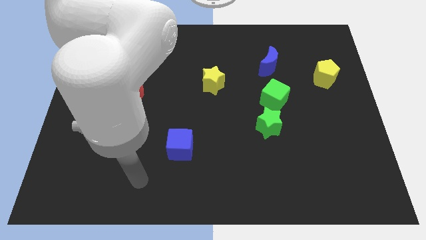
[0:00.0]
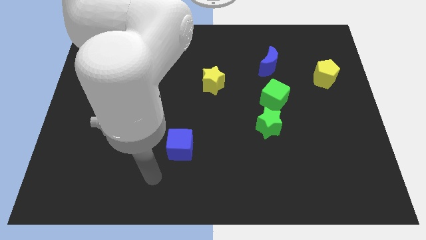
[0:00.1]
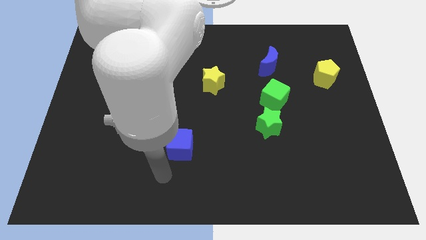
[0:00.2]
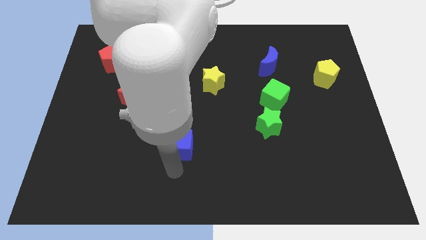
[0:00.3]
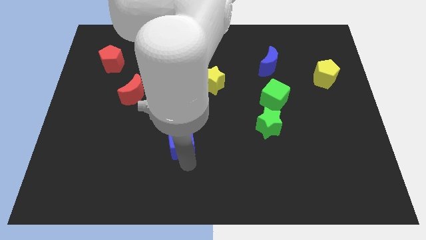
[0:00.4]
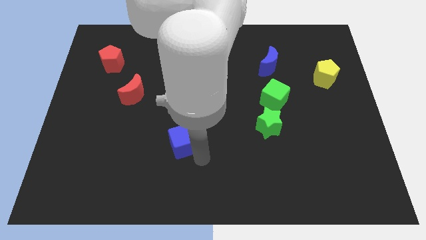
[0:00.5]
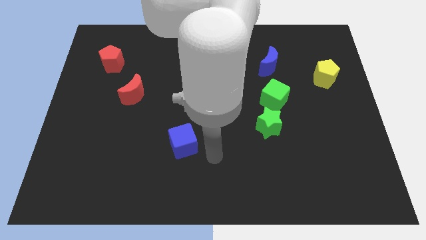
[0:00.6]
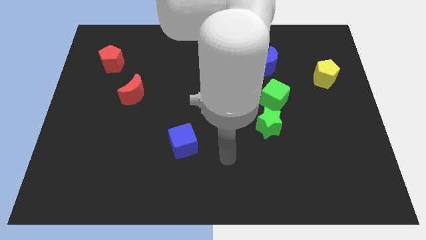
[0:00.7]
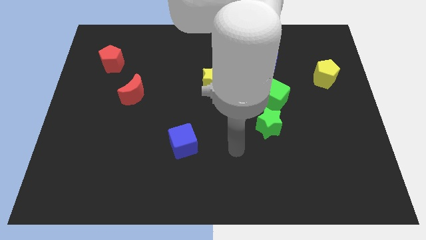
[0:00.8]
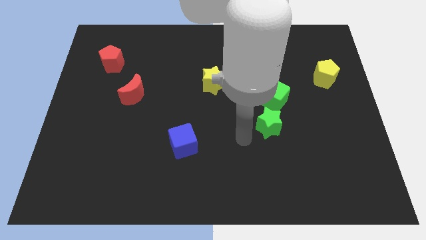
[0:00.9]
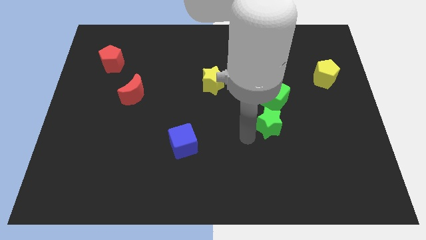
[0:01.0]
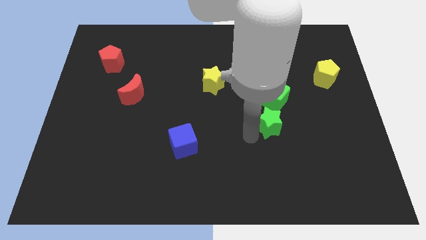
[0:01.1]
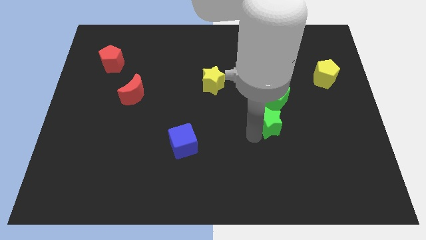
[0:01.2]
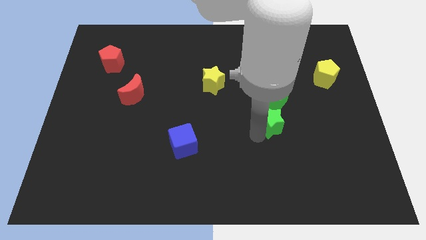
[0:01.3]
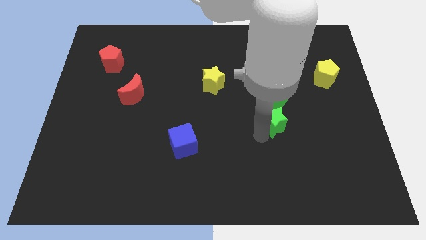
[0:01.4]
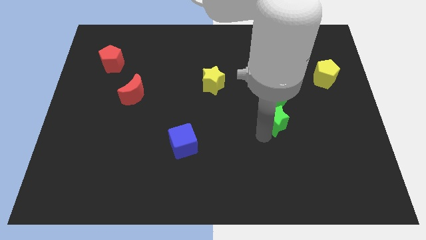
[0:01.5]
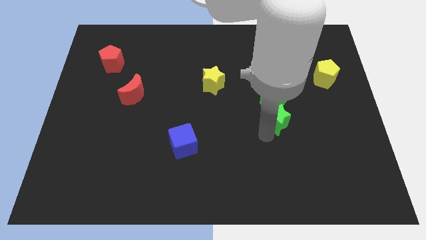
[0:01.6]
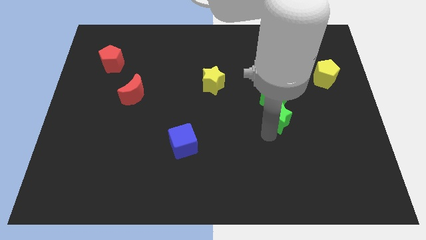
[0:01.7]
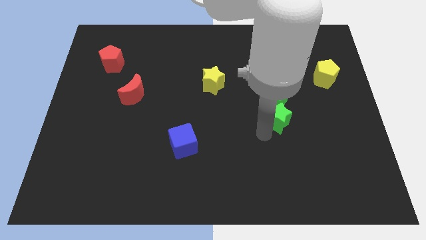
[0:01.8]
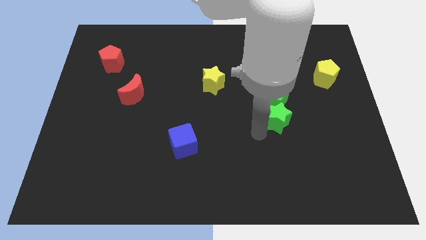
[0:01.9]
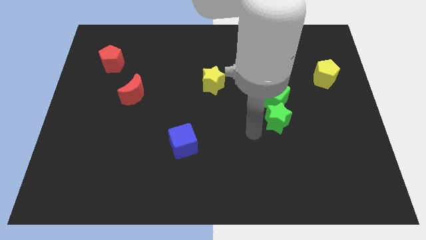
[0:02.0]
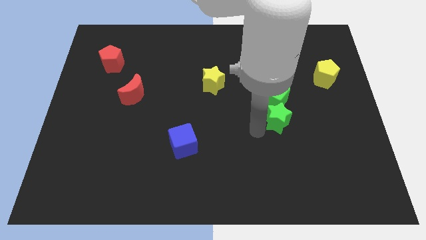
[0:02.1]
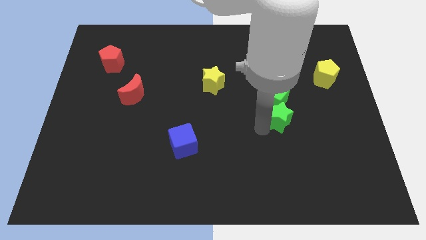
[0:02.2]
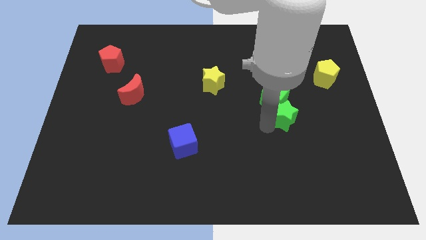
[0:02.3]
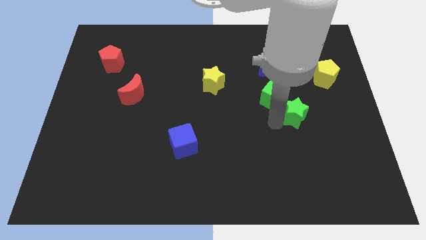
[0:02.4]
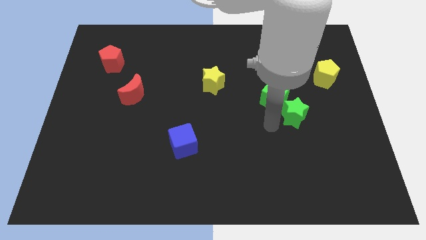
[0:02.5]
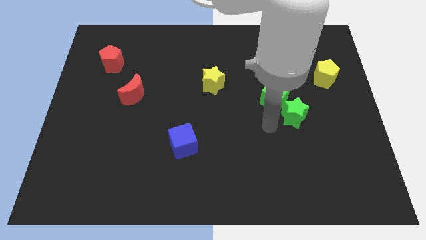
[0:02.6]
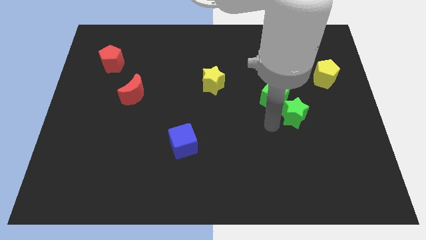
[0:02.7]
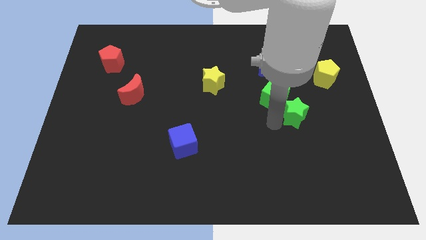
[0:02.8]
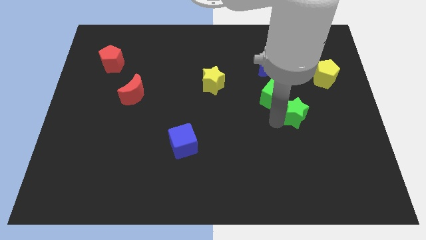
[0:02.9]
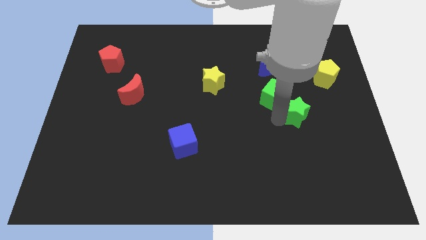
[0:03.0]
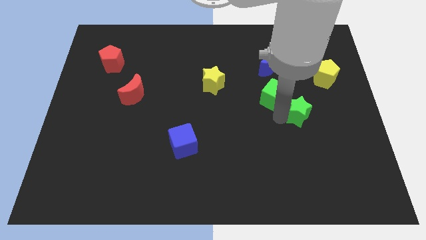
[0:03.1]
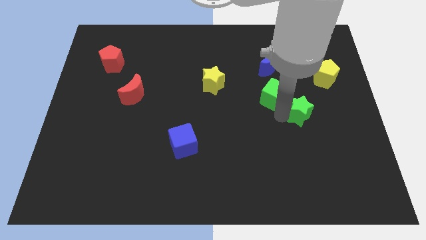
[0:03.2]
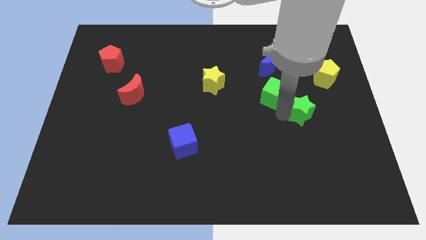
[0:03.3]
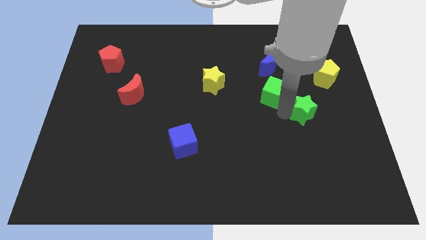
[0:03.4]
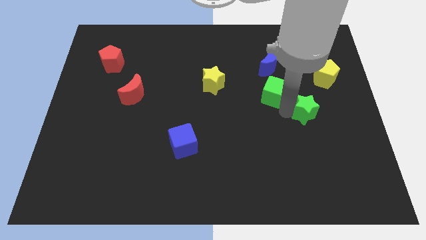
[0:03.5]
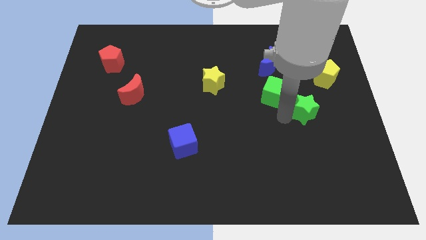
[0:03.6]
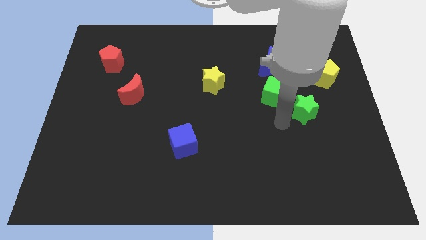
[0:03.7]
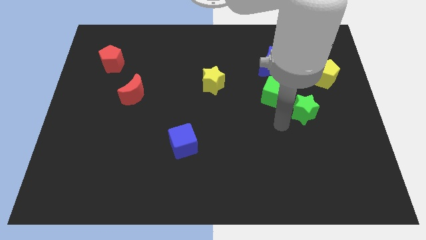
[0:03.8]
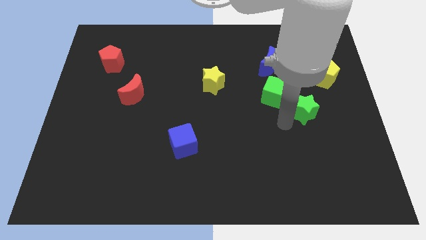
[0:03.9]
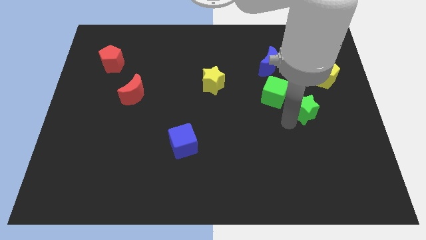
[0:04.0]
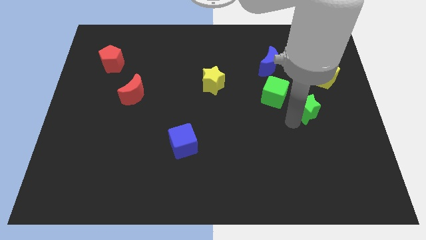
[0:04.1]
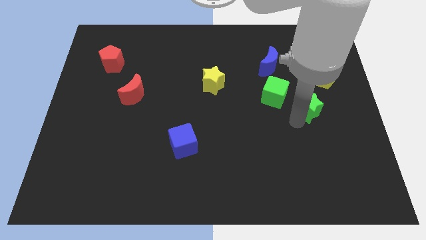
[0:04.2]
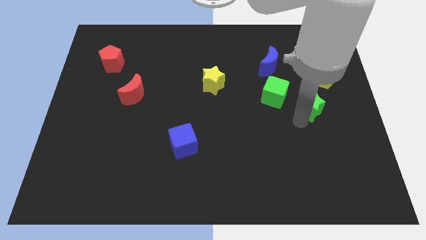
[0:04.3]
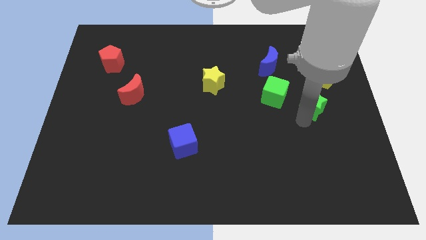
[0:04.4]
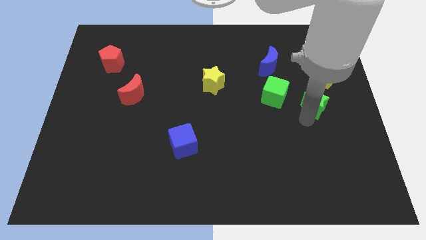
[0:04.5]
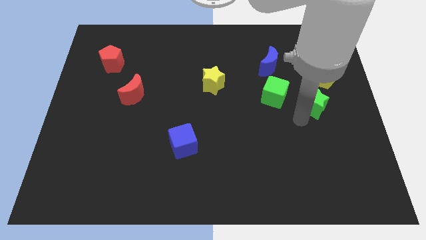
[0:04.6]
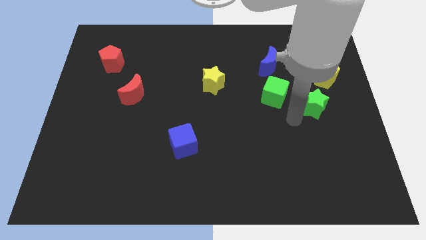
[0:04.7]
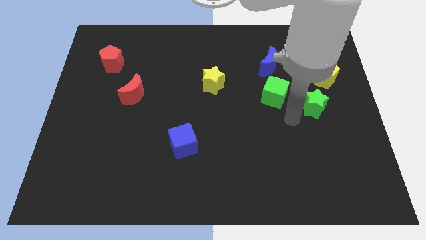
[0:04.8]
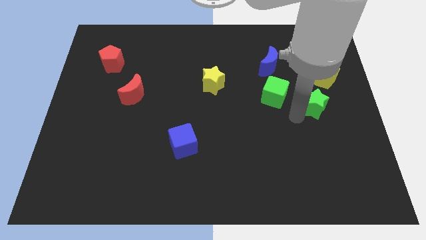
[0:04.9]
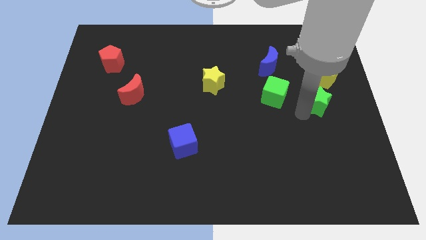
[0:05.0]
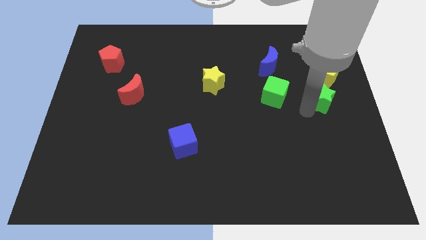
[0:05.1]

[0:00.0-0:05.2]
push the green star to the right side of the board

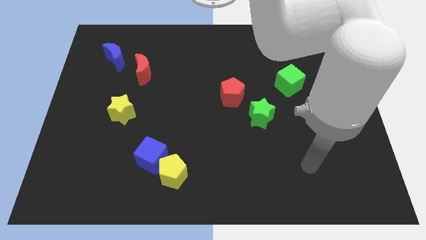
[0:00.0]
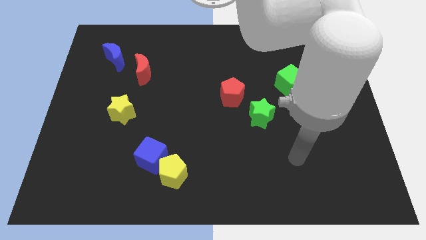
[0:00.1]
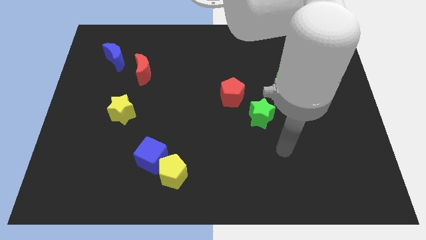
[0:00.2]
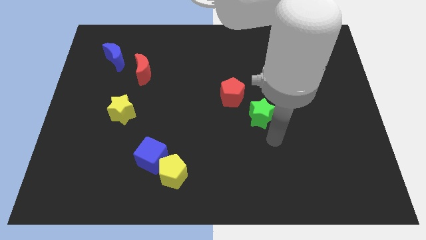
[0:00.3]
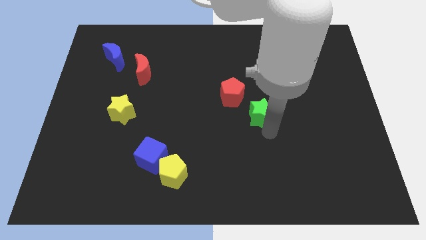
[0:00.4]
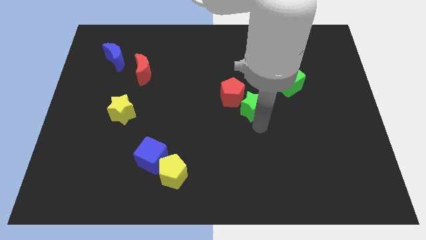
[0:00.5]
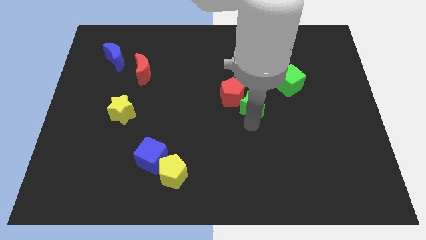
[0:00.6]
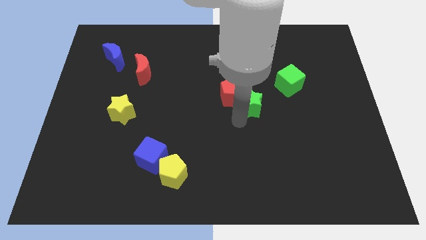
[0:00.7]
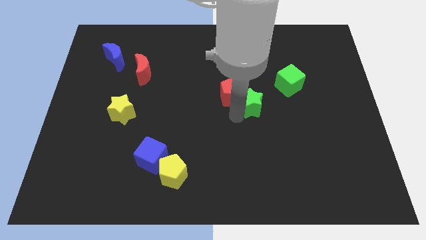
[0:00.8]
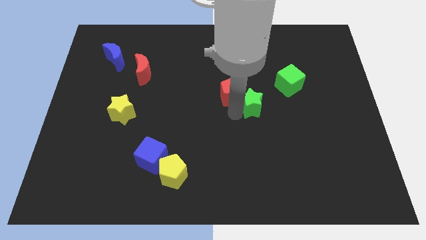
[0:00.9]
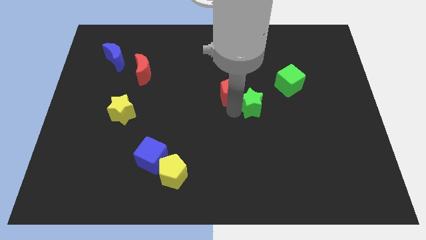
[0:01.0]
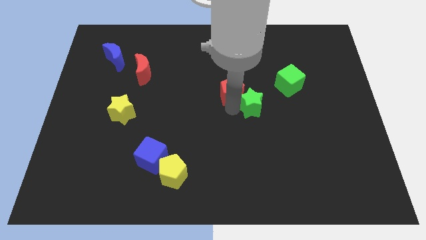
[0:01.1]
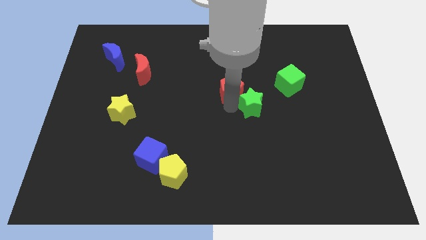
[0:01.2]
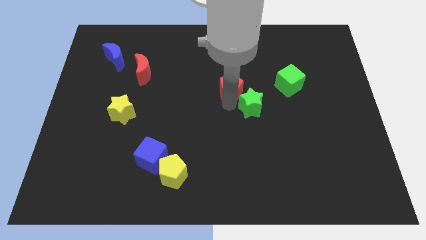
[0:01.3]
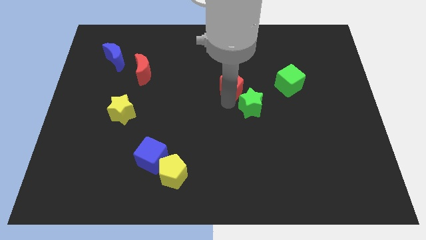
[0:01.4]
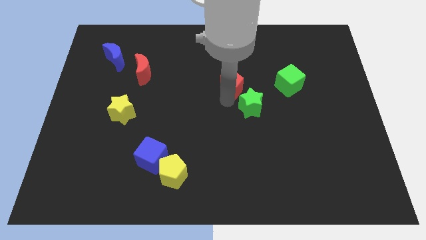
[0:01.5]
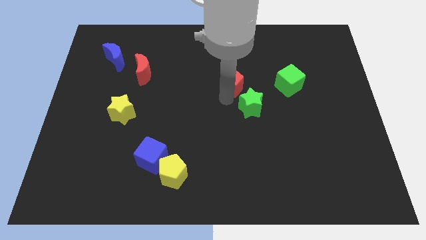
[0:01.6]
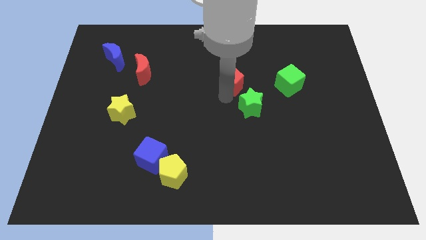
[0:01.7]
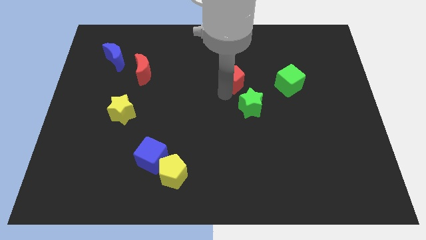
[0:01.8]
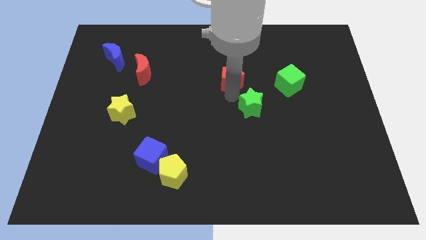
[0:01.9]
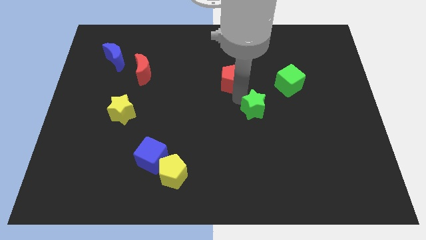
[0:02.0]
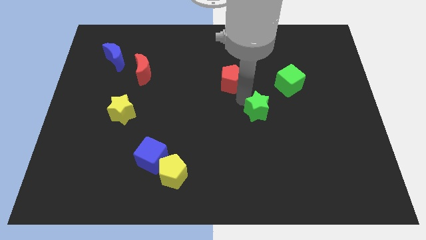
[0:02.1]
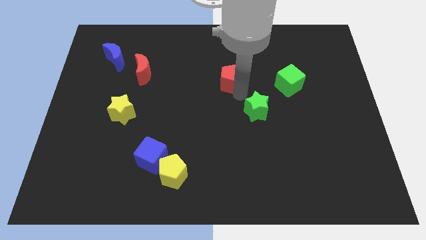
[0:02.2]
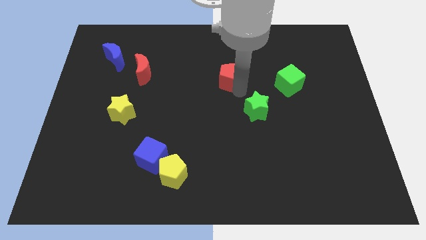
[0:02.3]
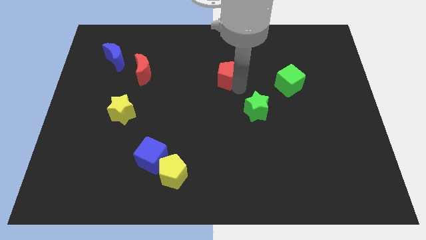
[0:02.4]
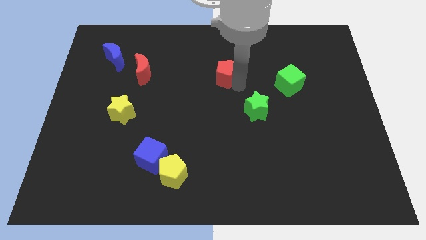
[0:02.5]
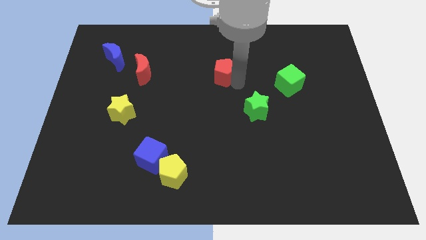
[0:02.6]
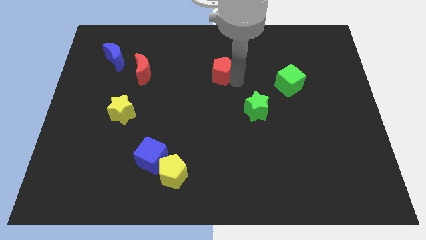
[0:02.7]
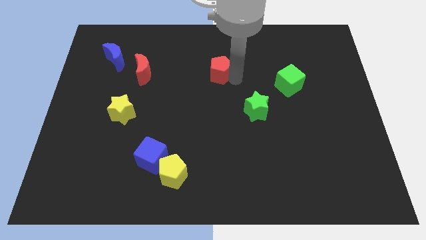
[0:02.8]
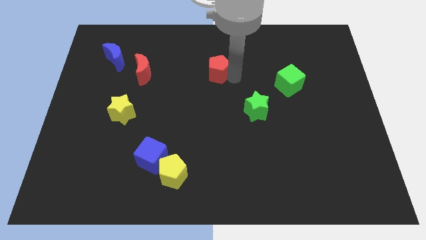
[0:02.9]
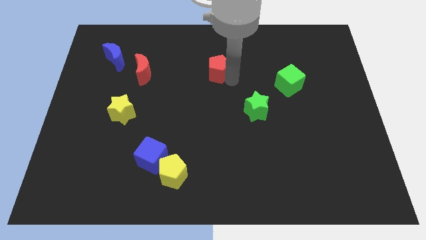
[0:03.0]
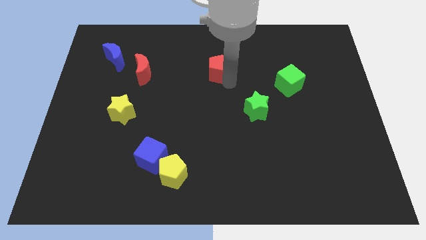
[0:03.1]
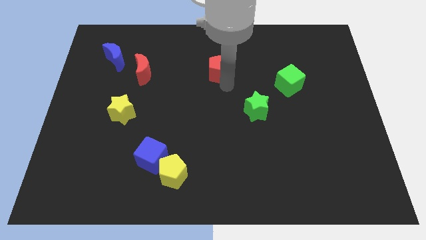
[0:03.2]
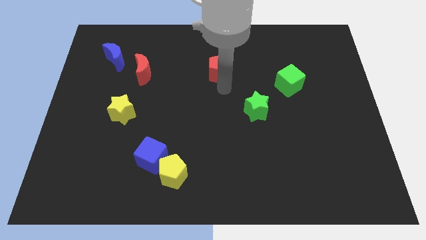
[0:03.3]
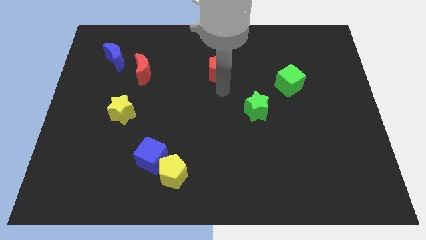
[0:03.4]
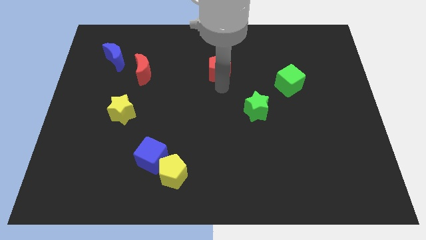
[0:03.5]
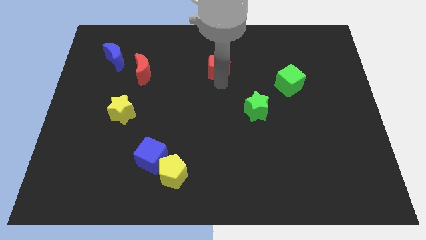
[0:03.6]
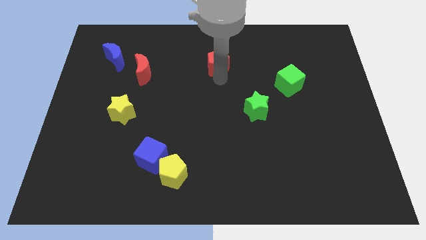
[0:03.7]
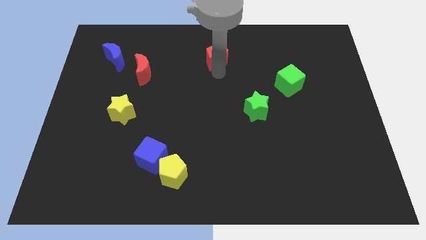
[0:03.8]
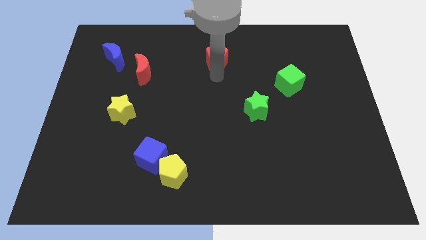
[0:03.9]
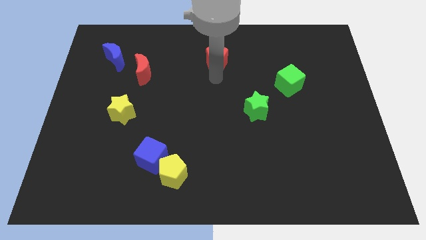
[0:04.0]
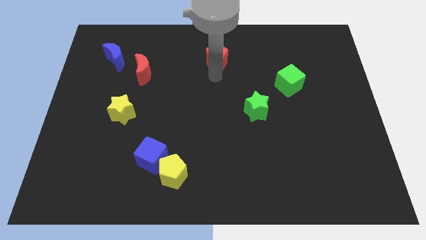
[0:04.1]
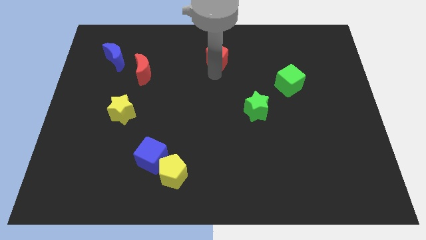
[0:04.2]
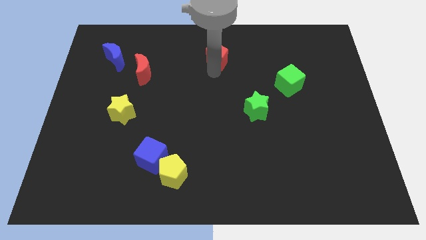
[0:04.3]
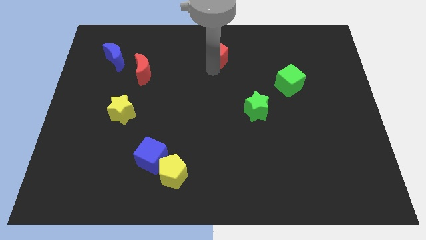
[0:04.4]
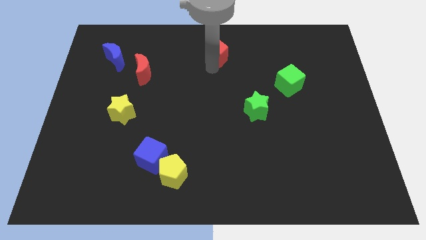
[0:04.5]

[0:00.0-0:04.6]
slide the red pentagon to the top
